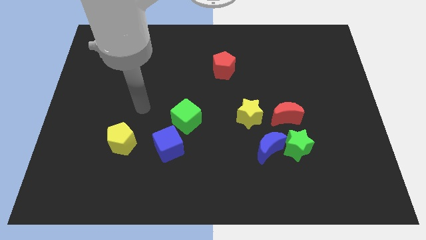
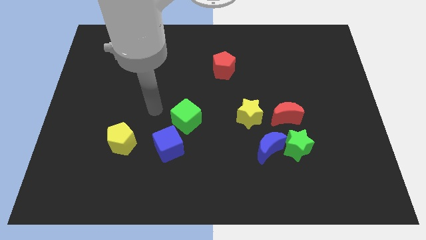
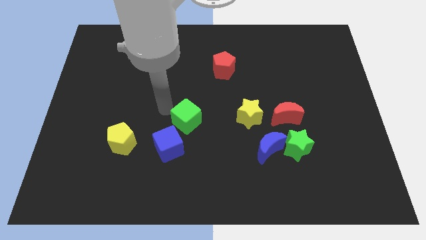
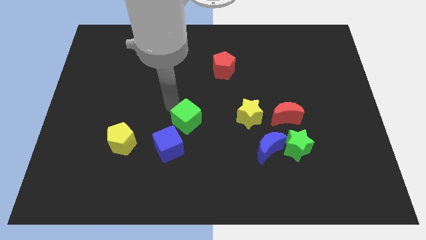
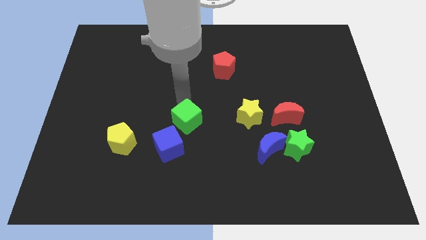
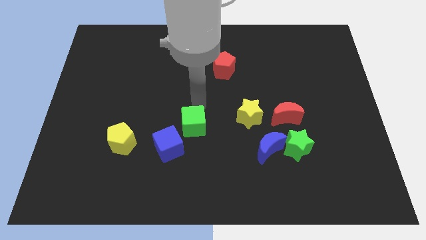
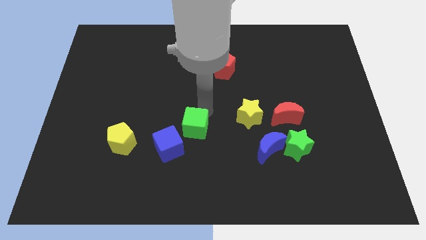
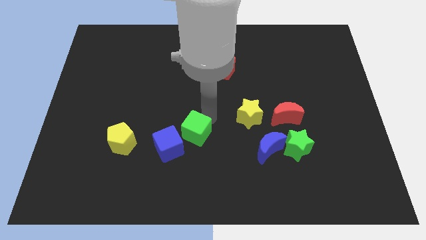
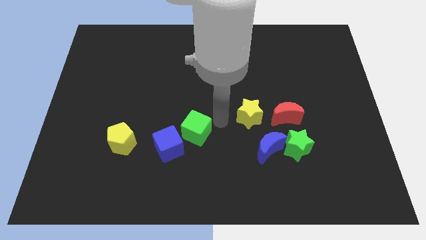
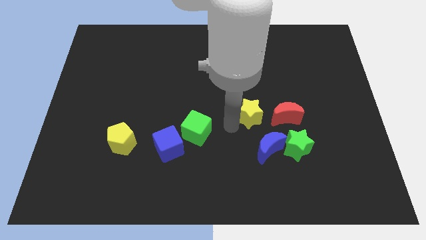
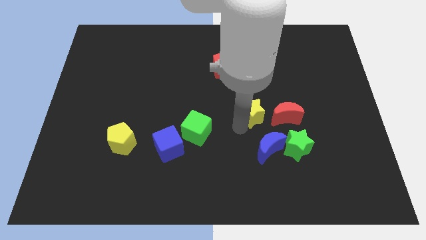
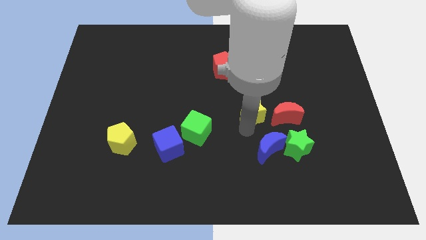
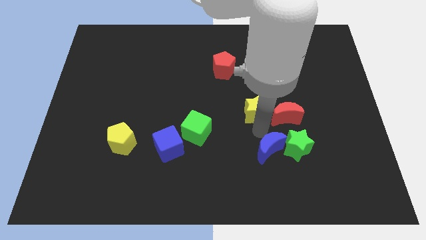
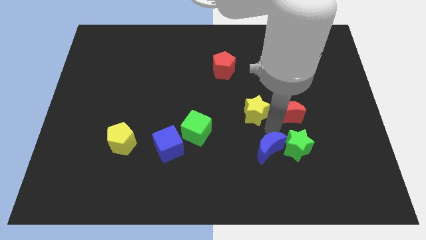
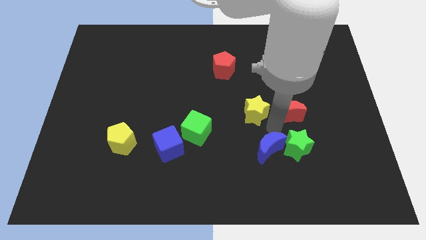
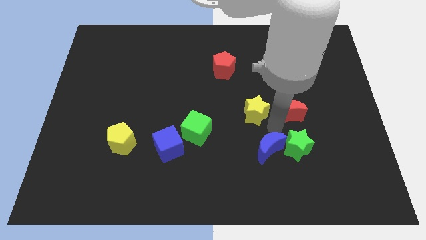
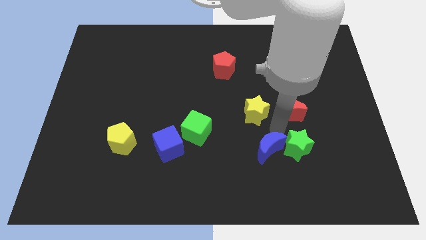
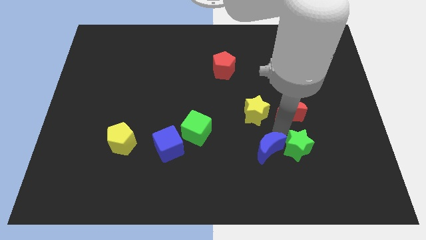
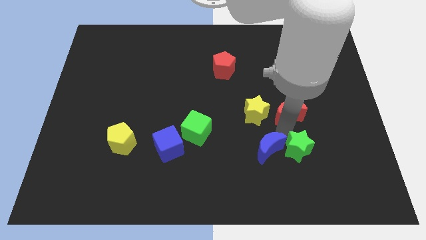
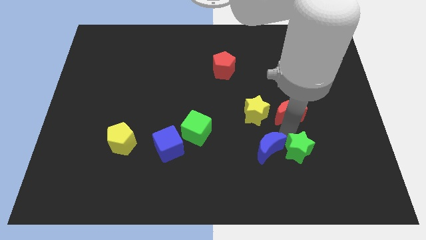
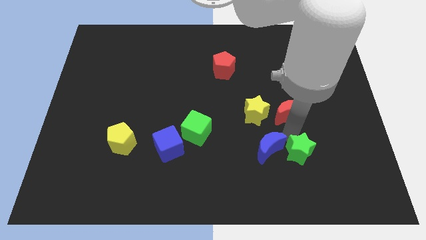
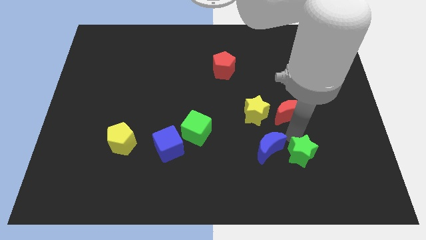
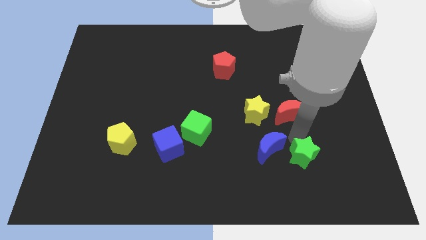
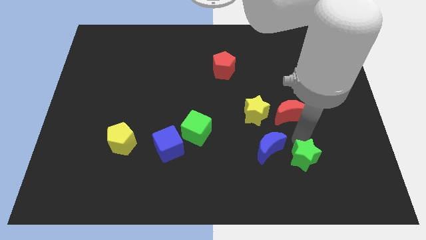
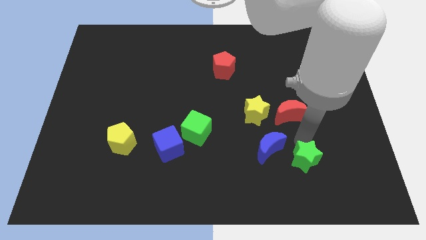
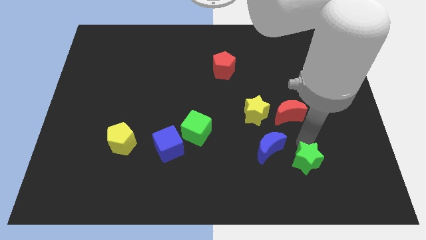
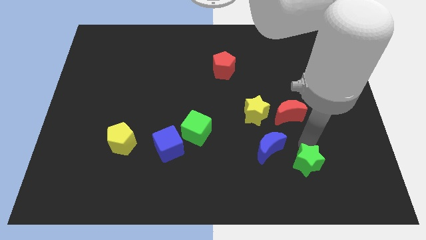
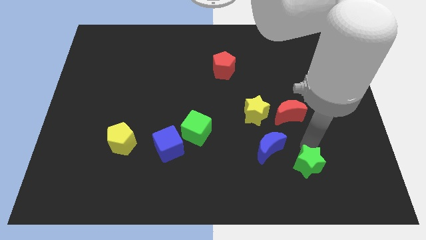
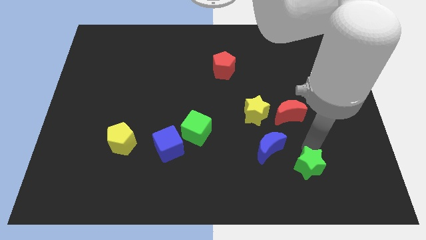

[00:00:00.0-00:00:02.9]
move the green star away from the blue moon and red moon

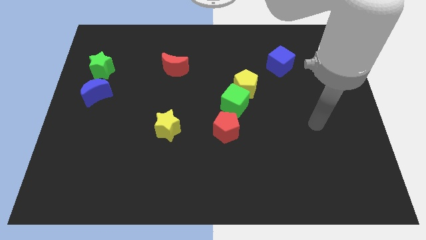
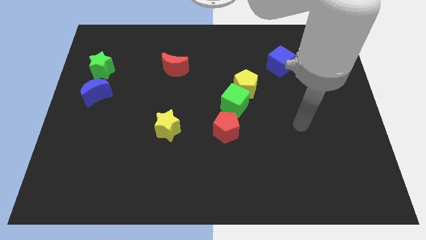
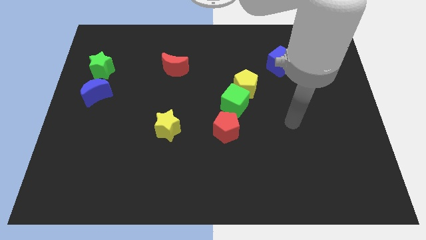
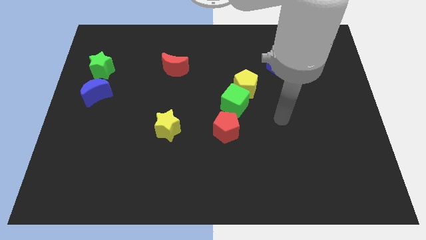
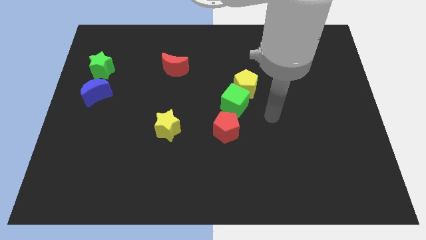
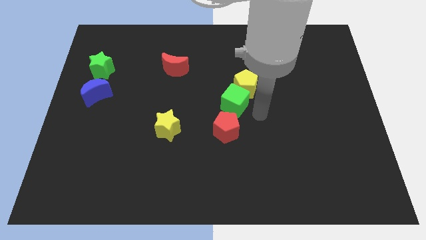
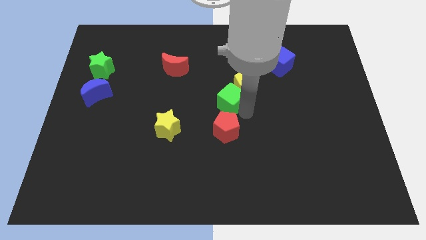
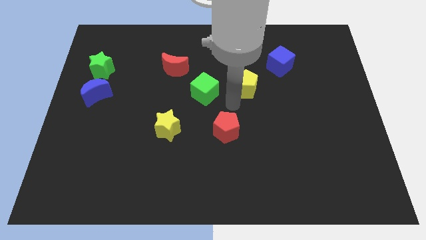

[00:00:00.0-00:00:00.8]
pull the yellow pentagon apart from the green cube

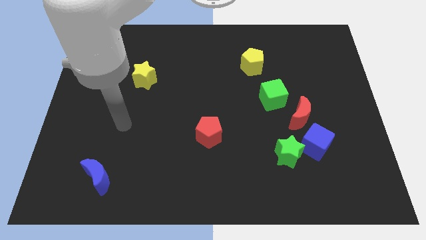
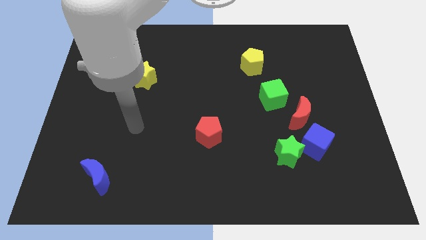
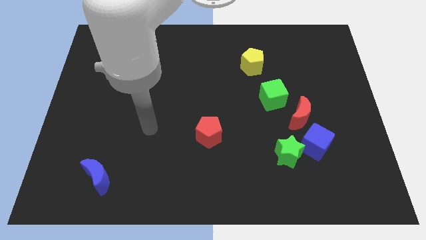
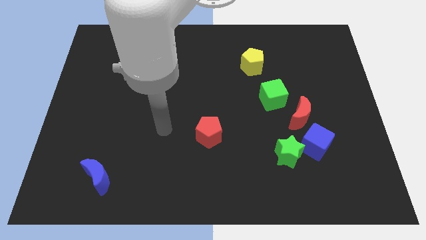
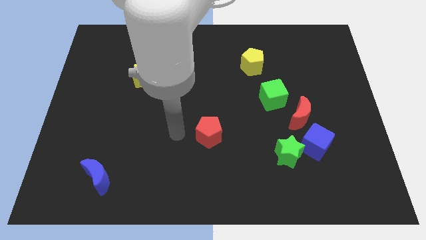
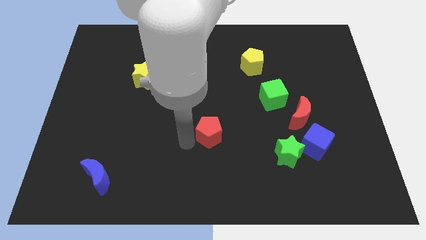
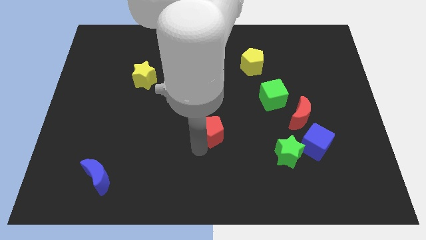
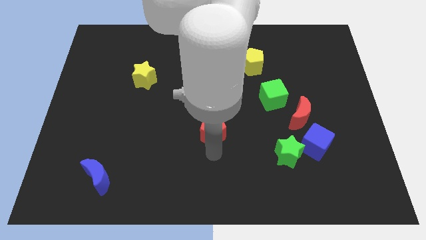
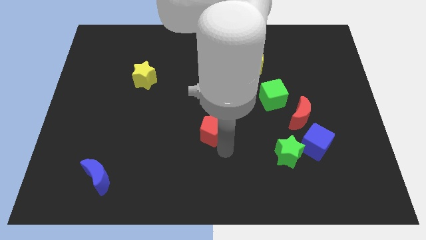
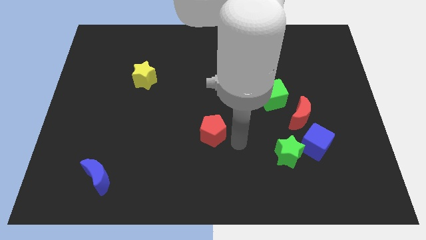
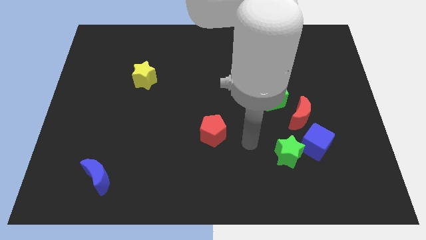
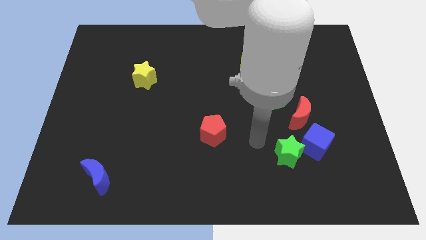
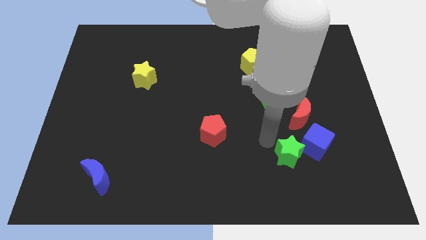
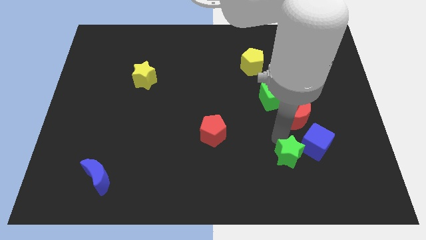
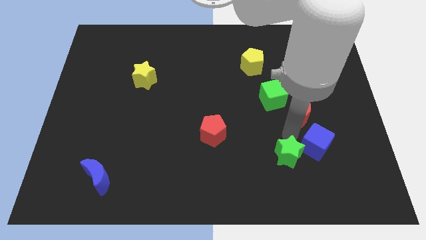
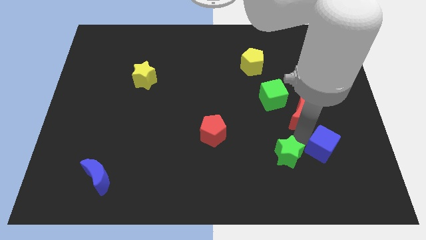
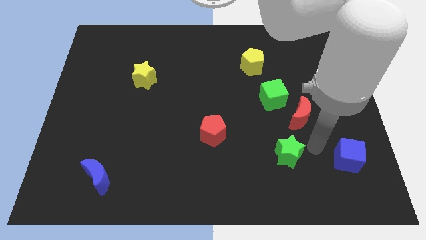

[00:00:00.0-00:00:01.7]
pull the green star apart from the blue cube

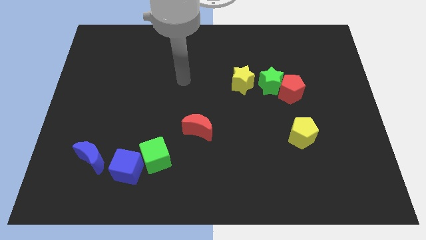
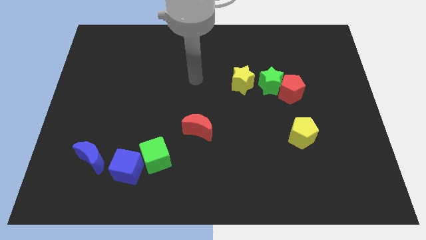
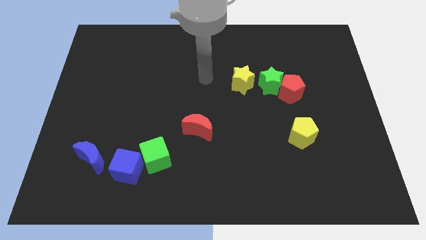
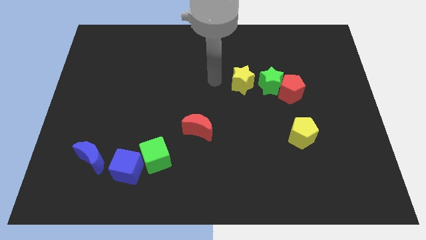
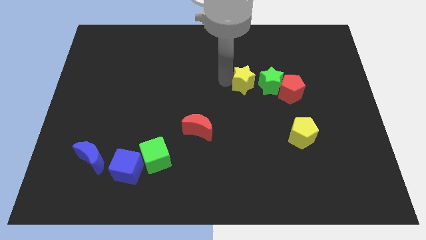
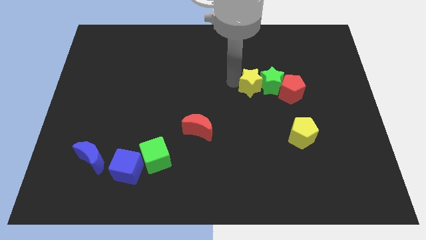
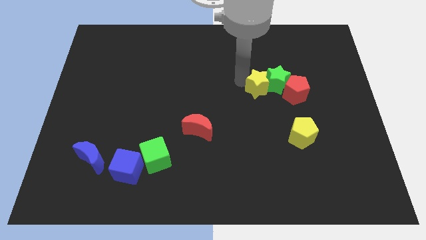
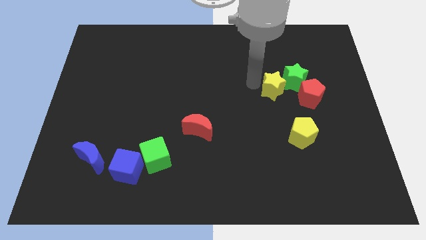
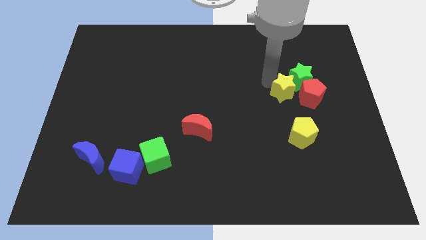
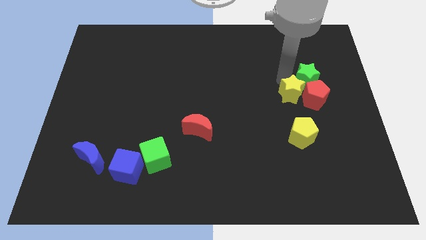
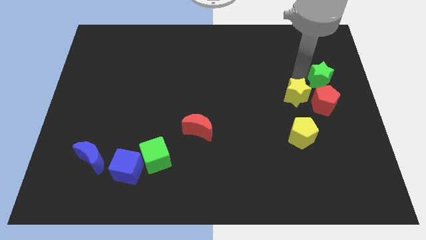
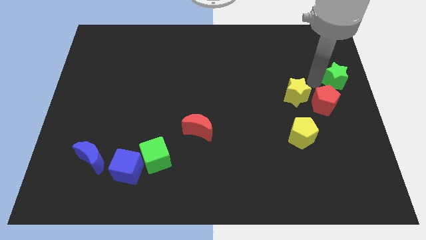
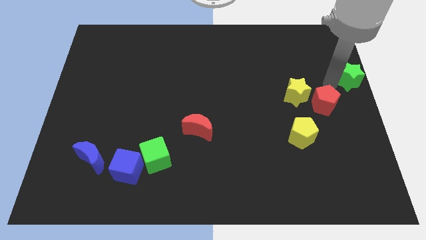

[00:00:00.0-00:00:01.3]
move the red pentagon away from the green star

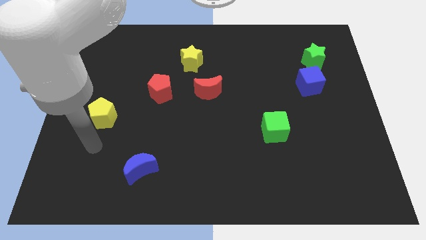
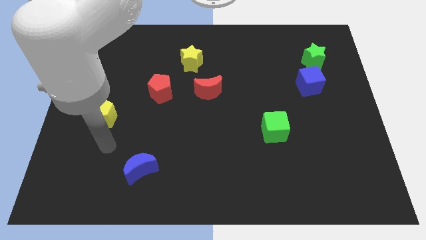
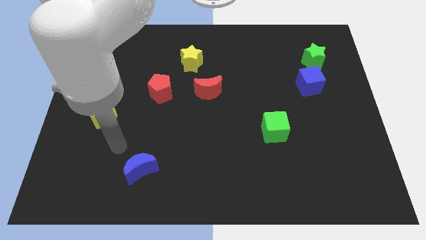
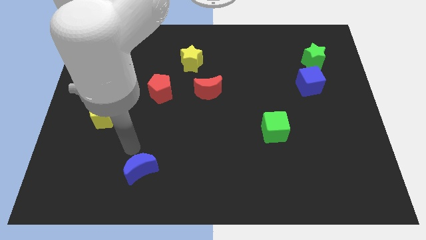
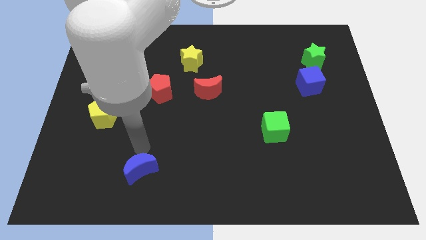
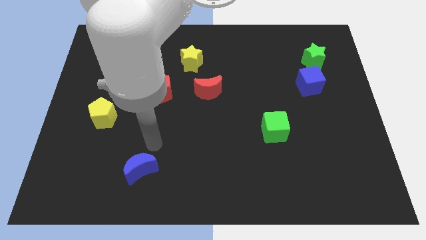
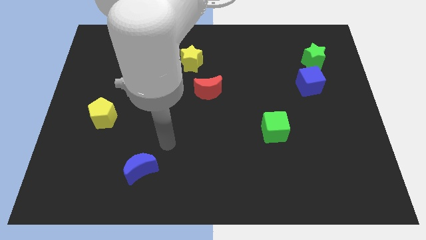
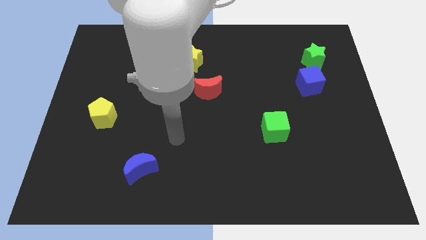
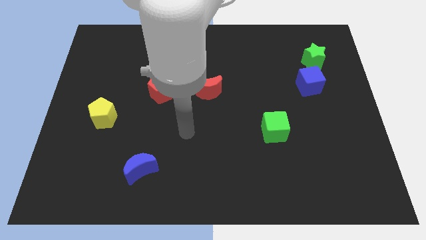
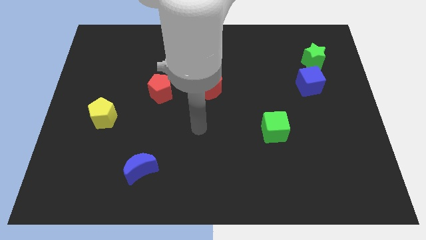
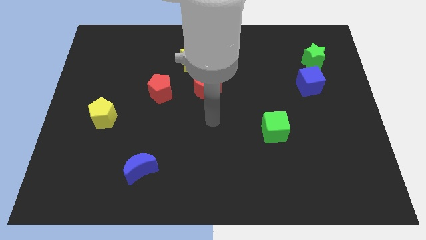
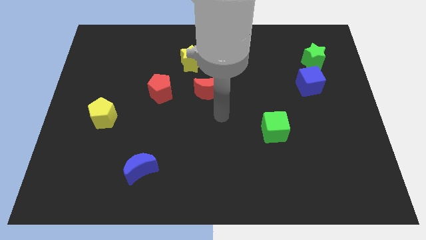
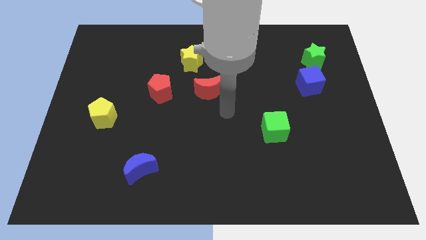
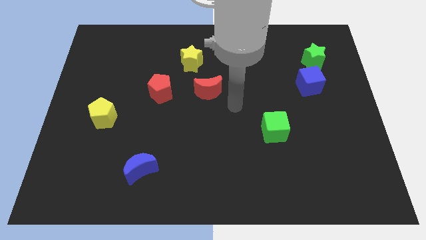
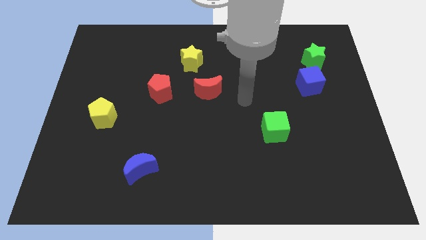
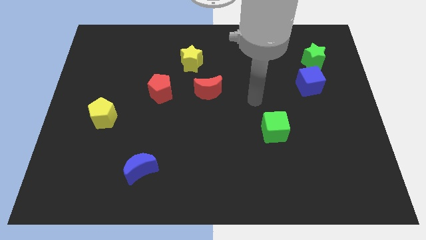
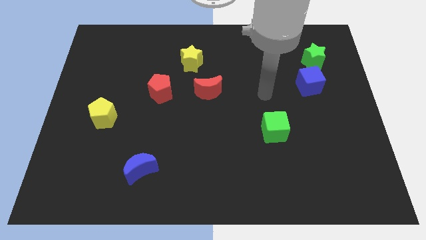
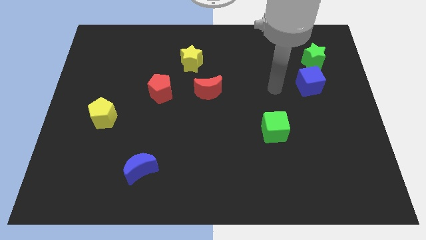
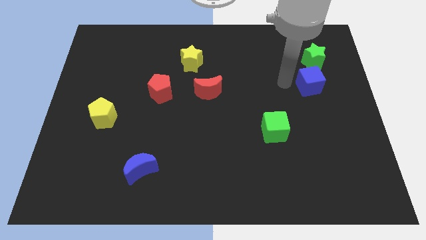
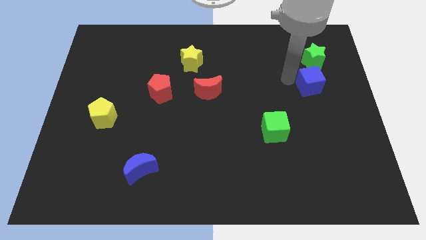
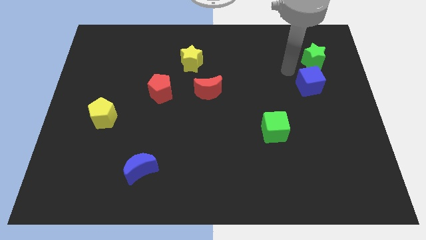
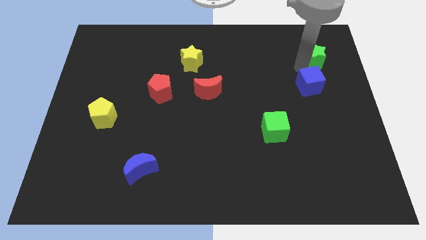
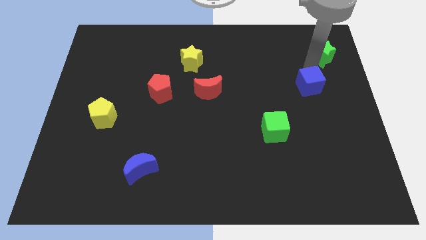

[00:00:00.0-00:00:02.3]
move the blue cube away from the green star

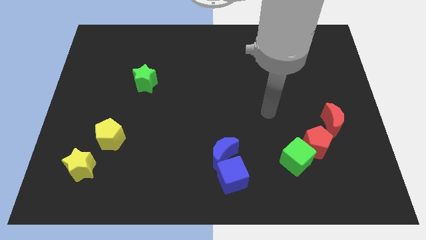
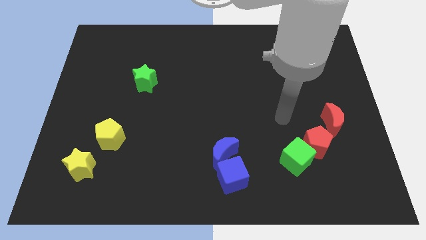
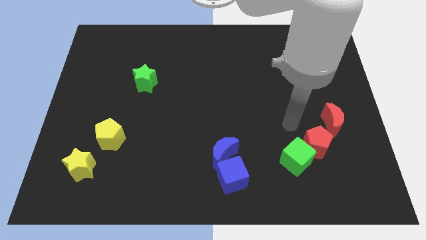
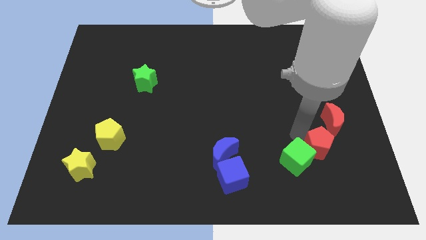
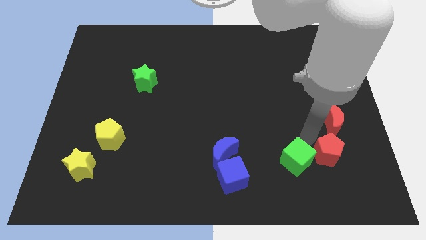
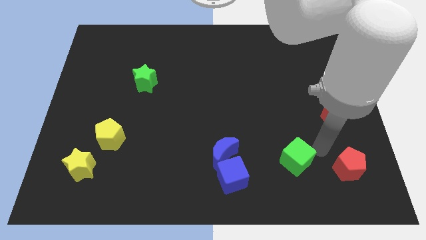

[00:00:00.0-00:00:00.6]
move the green cube away from the red pentagon
